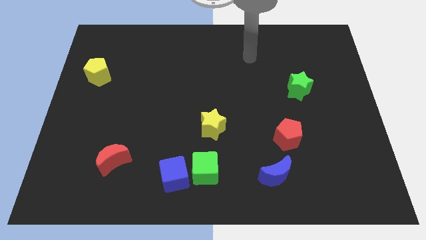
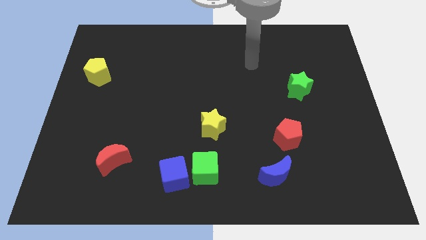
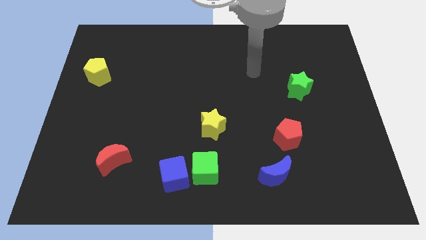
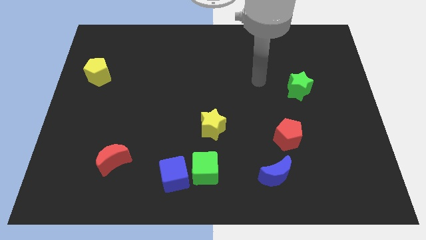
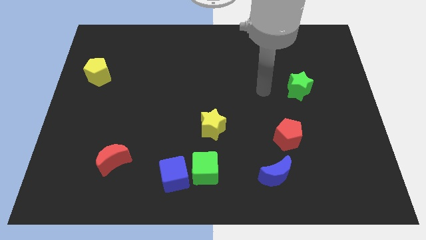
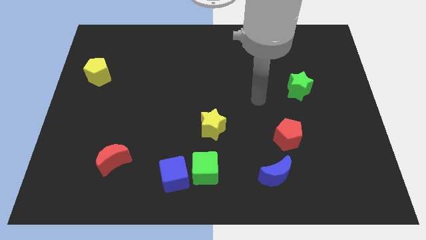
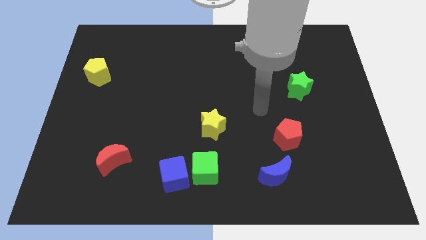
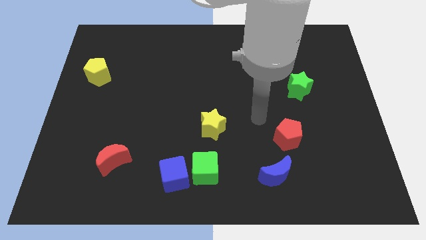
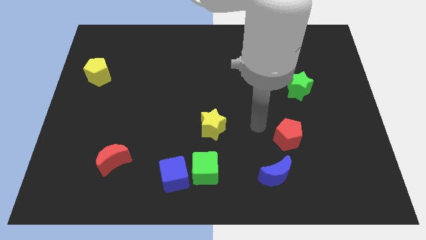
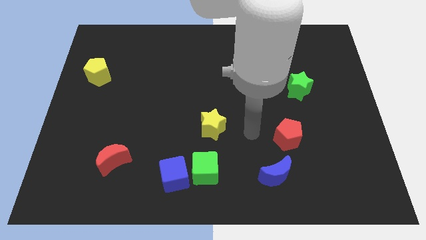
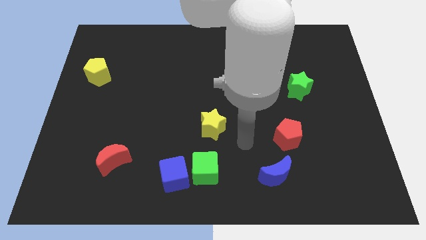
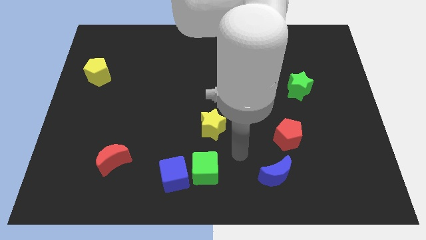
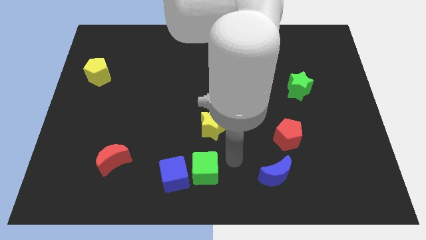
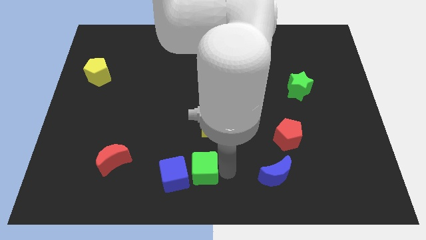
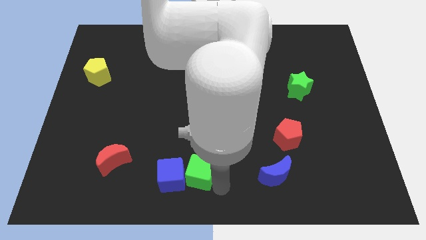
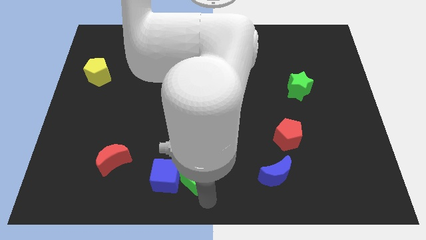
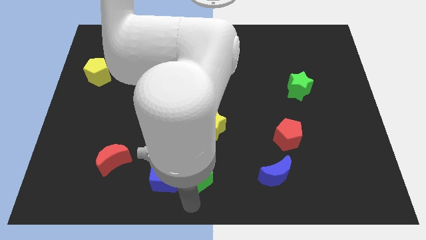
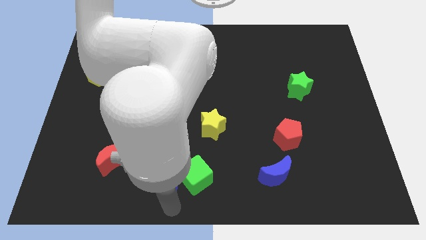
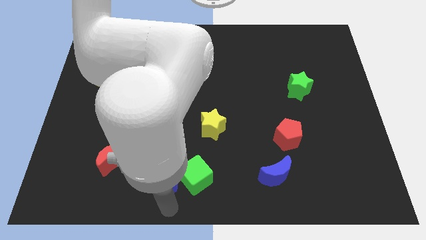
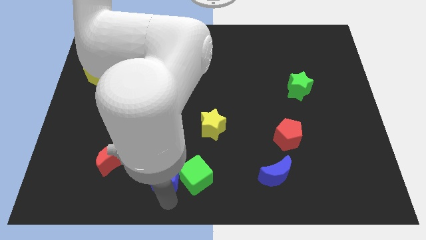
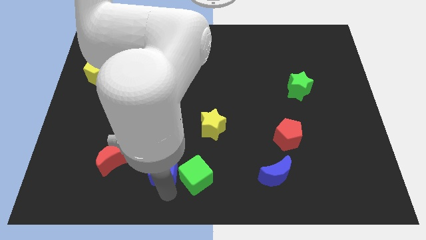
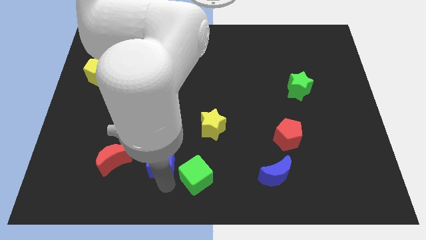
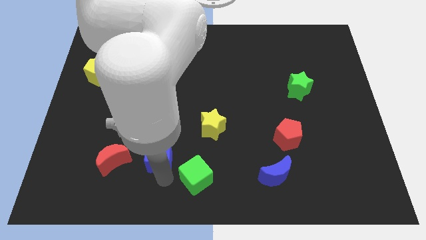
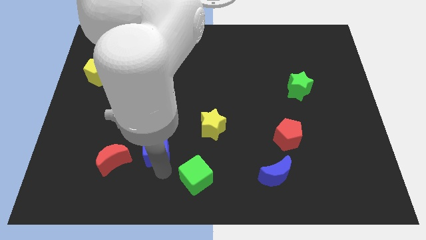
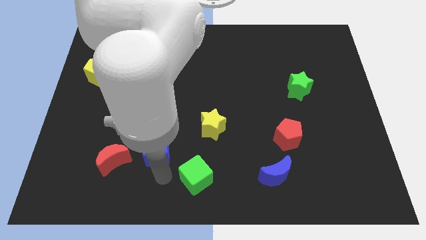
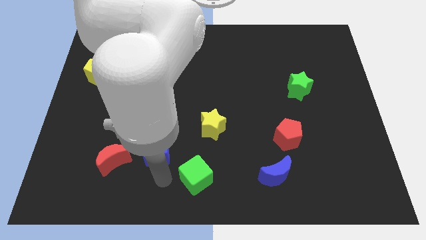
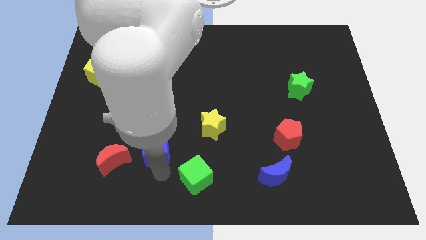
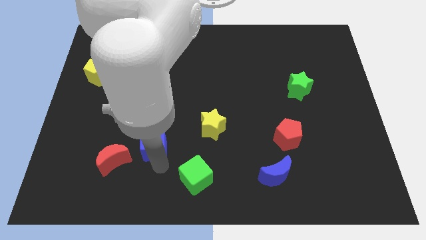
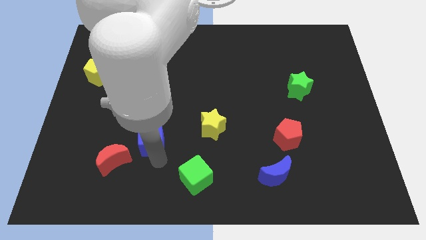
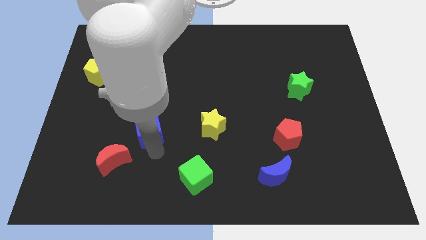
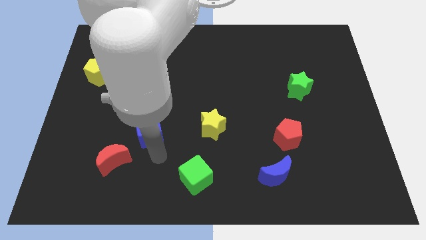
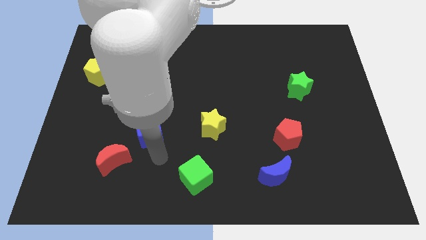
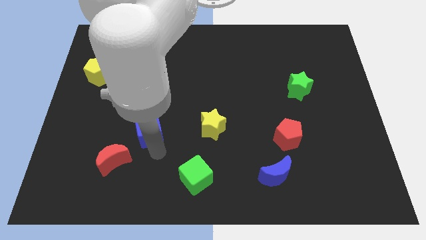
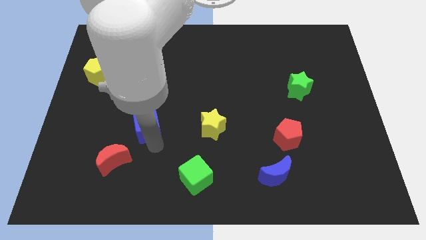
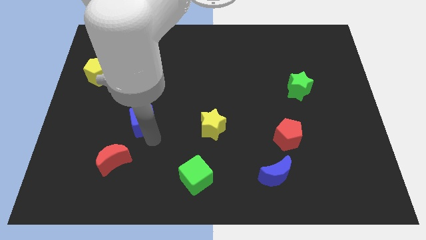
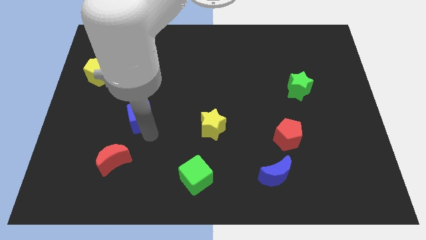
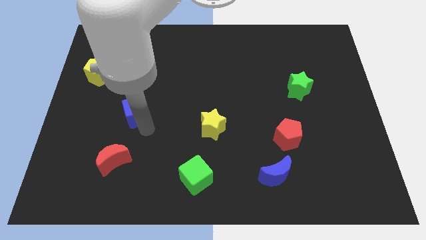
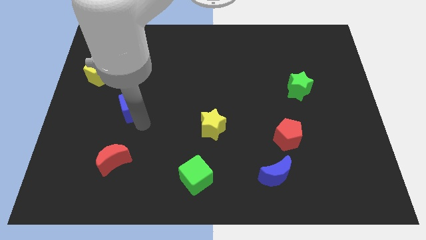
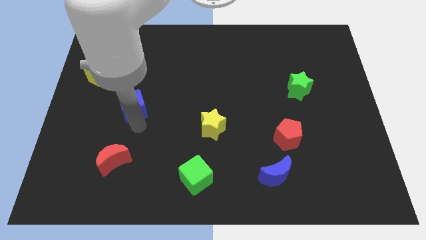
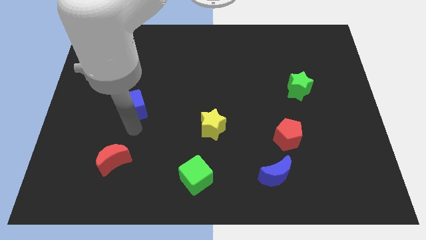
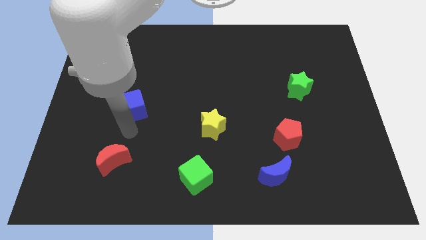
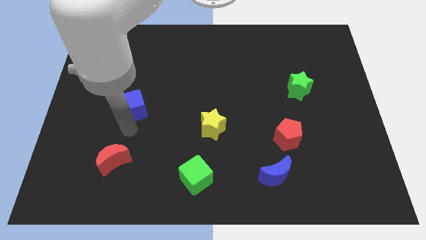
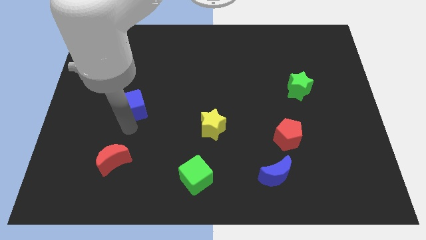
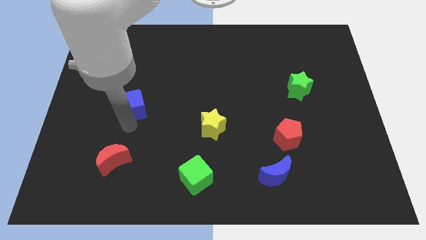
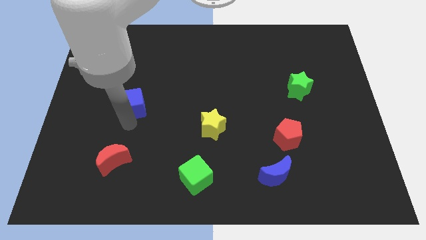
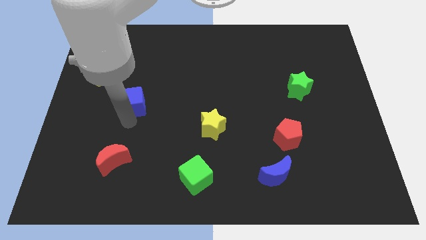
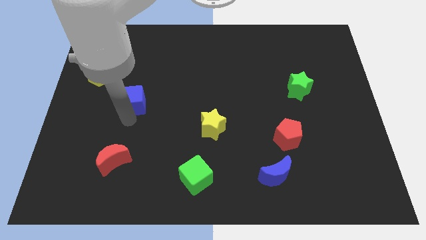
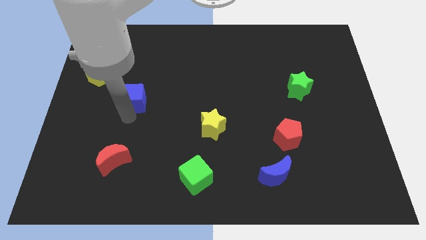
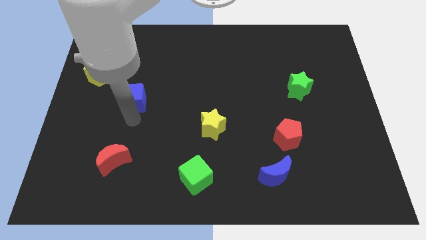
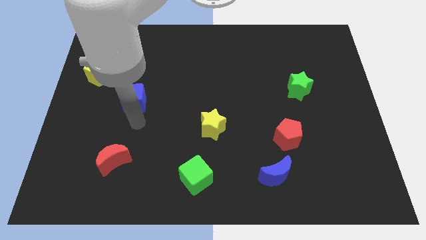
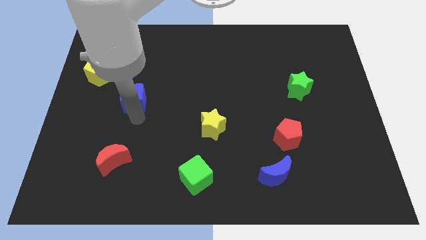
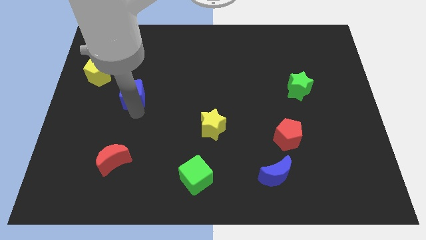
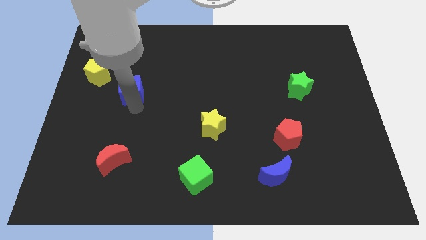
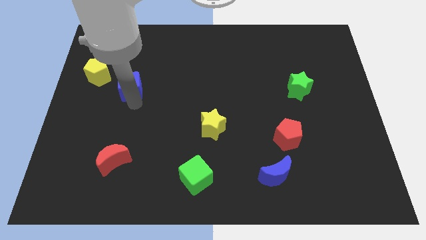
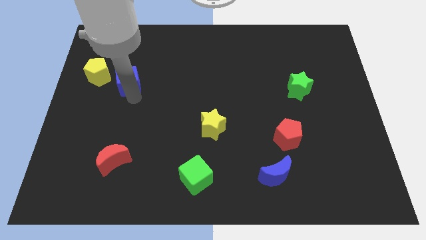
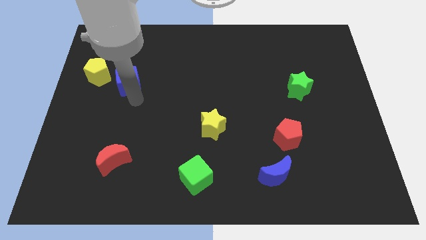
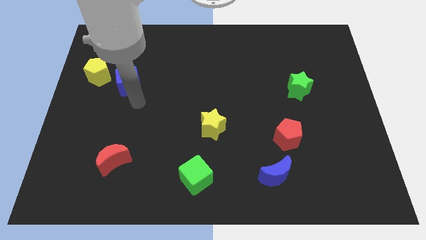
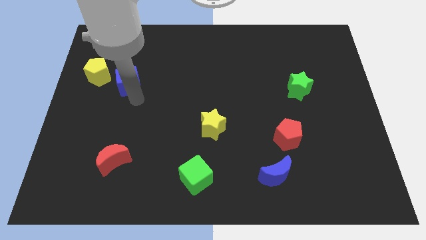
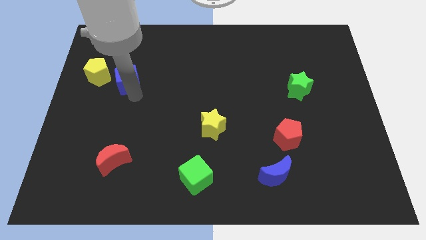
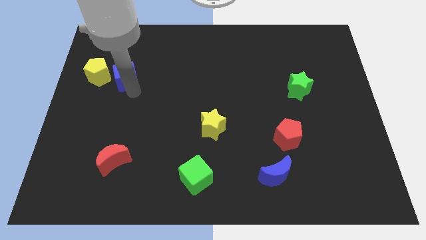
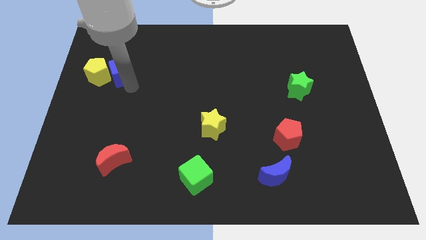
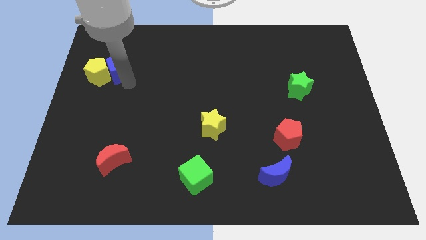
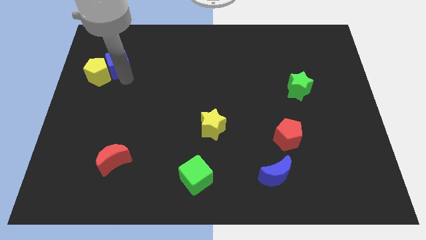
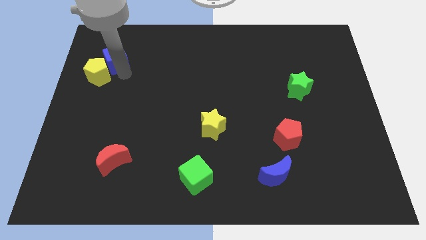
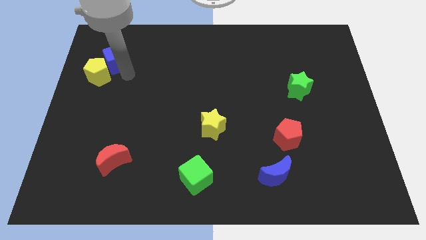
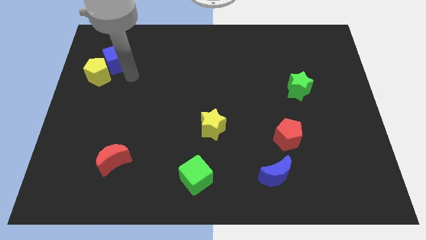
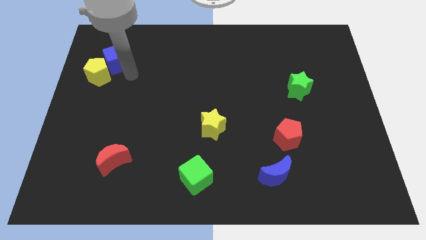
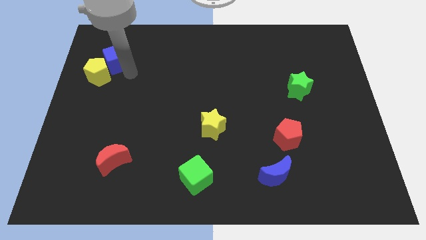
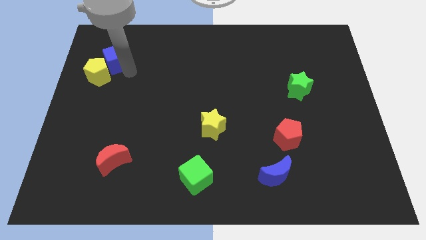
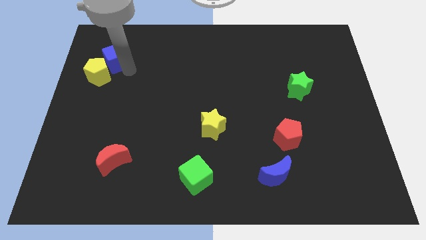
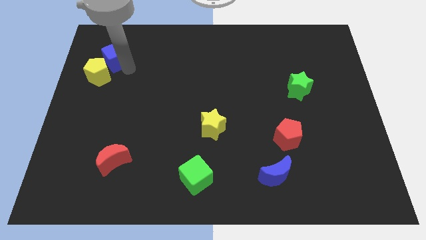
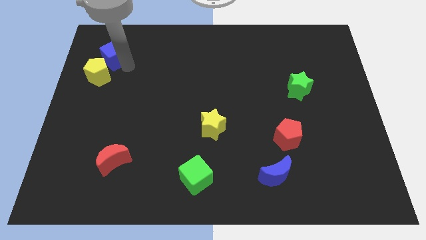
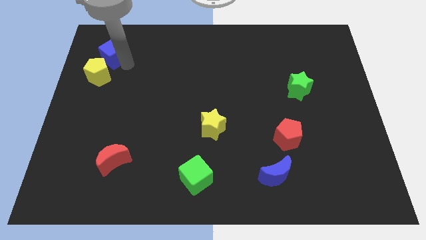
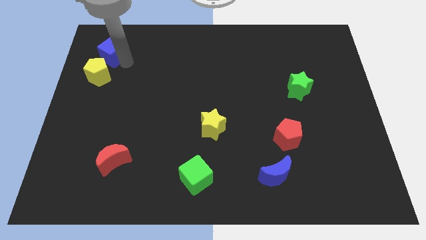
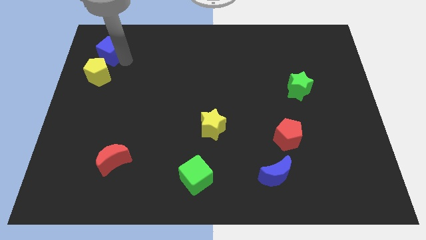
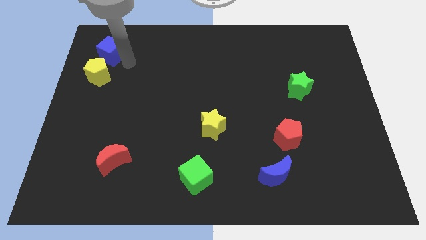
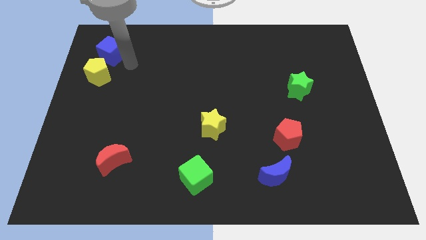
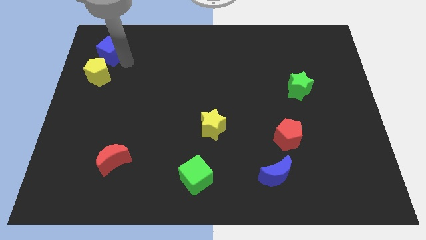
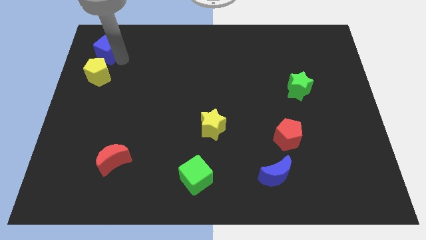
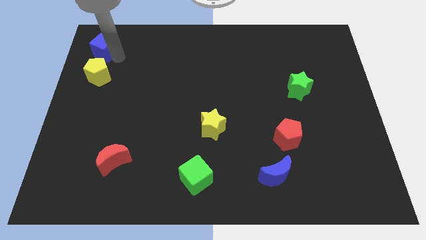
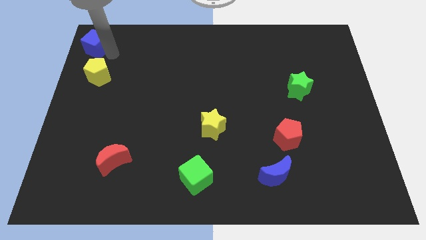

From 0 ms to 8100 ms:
slide the blue cube to the top left corner
